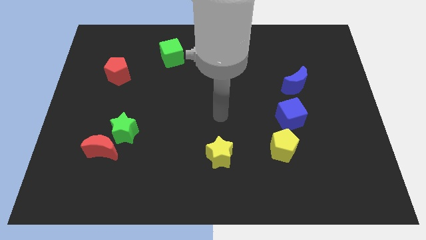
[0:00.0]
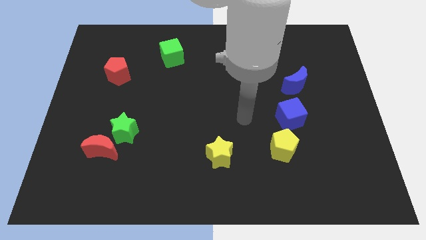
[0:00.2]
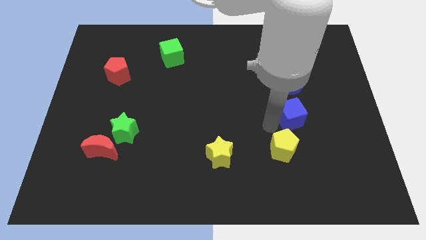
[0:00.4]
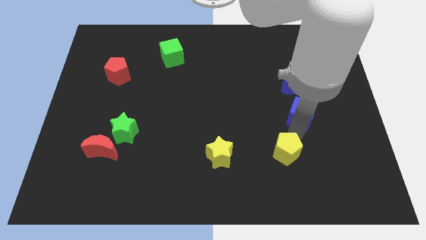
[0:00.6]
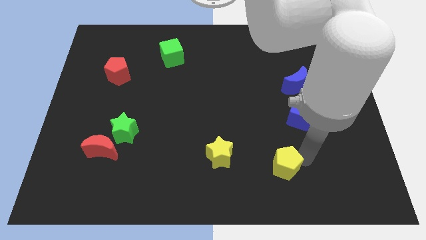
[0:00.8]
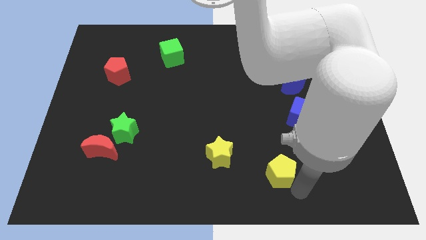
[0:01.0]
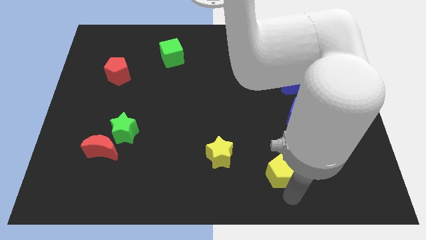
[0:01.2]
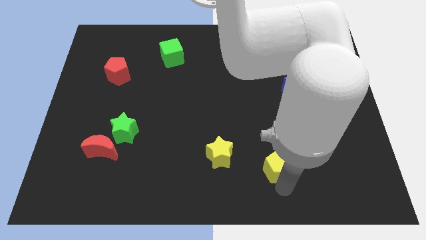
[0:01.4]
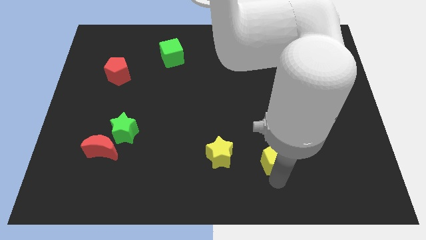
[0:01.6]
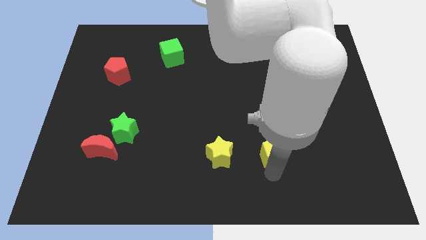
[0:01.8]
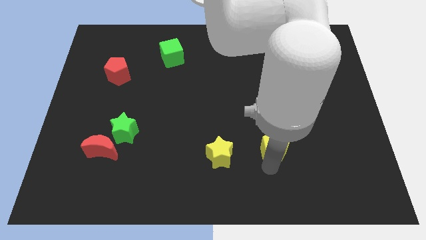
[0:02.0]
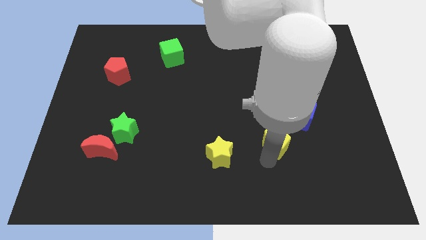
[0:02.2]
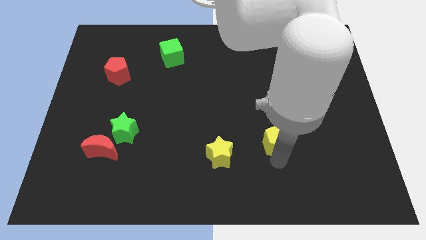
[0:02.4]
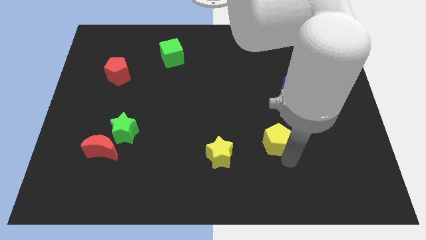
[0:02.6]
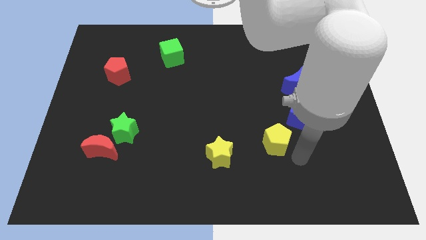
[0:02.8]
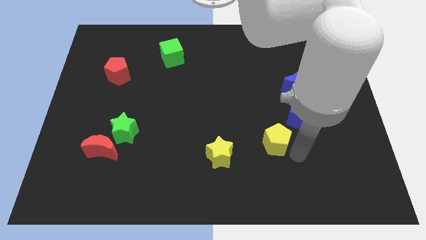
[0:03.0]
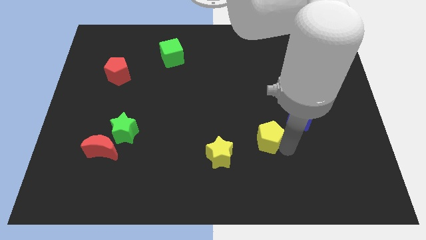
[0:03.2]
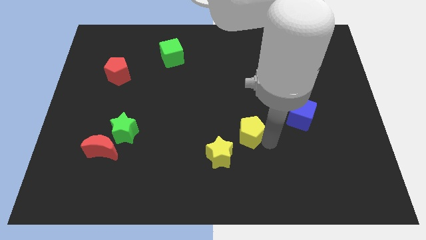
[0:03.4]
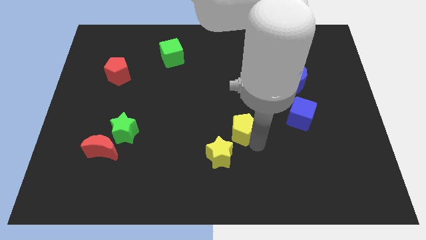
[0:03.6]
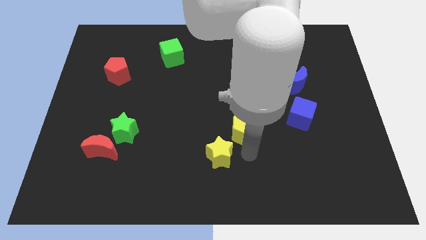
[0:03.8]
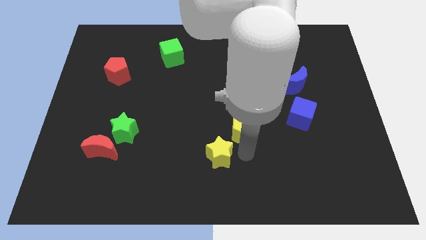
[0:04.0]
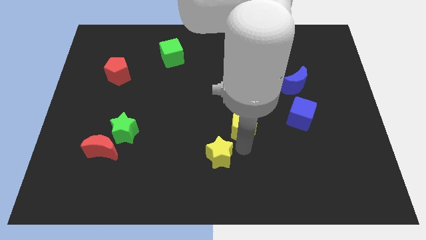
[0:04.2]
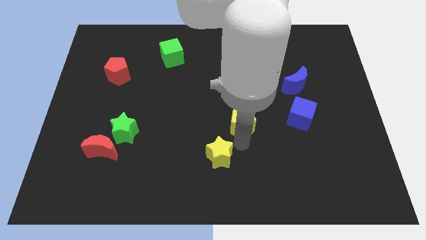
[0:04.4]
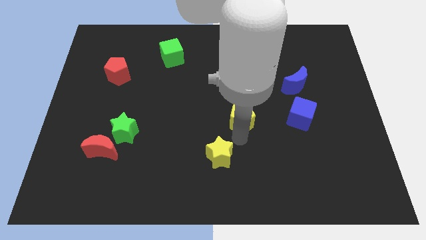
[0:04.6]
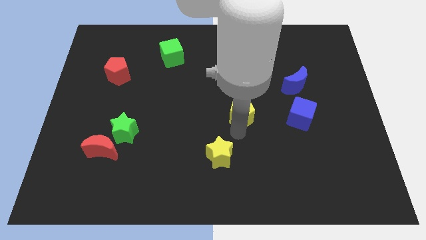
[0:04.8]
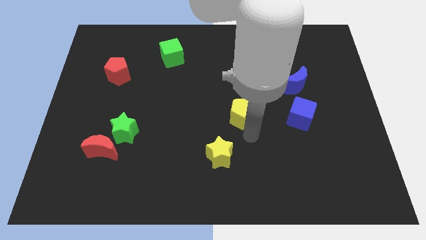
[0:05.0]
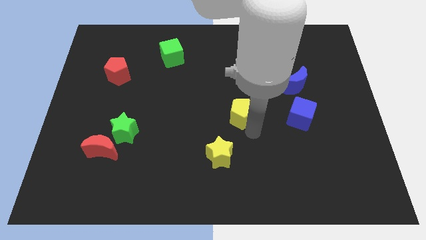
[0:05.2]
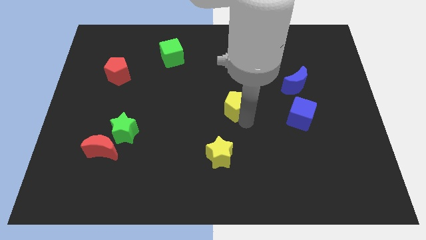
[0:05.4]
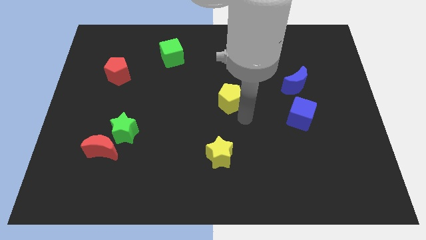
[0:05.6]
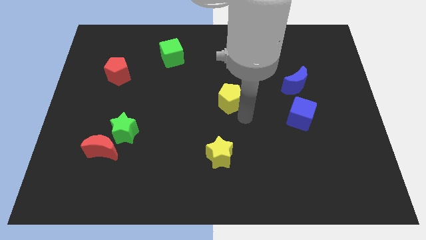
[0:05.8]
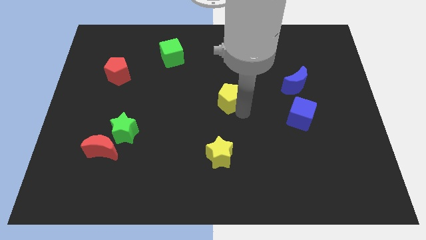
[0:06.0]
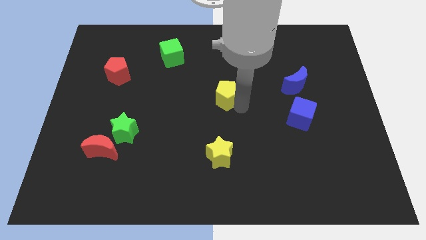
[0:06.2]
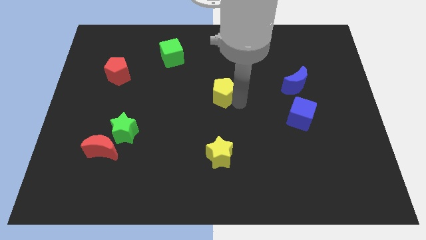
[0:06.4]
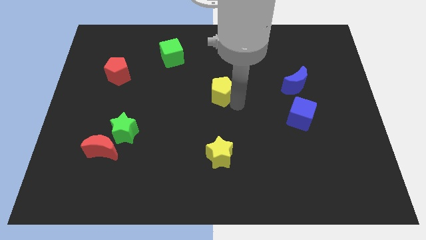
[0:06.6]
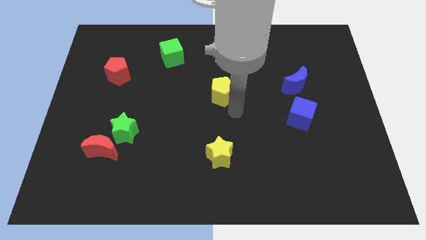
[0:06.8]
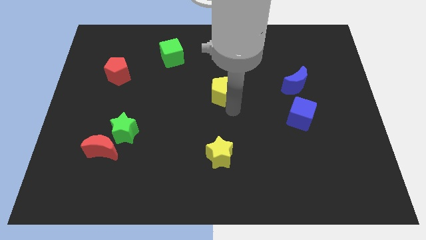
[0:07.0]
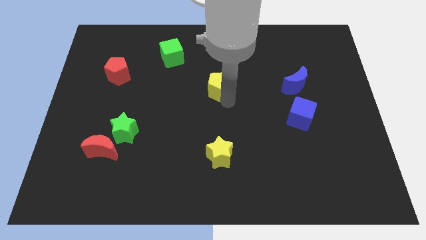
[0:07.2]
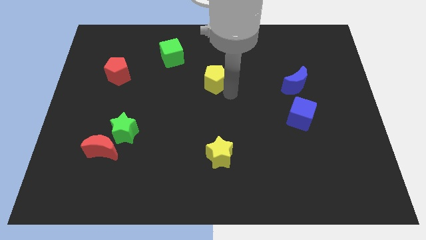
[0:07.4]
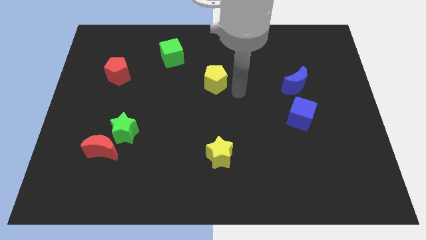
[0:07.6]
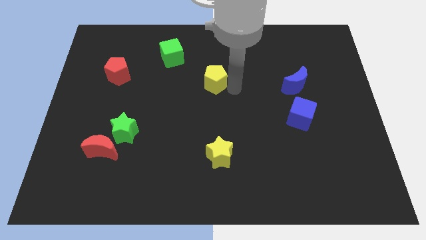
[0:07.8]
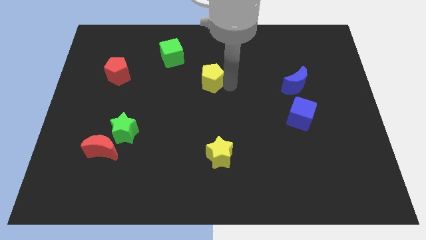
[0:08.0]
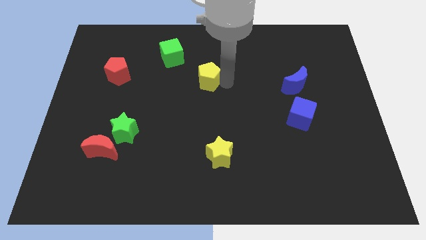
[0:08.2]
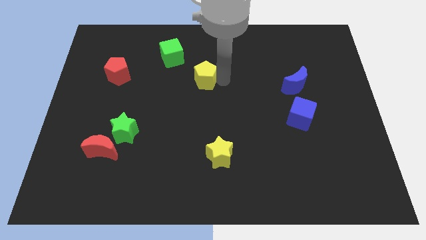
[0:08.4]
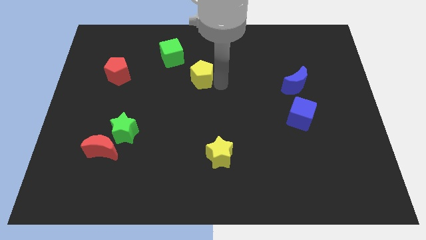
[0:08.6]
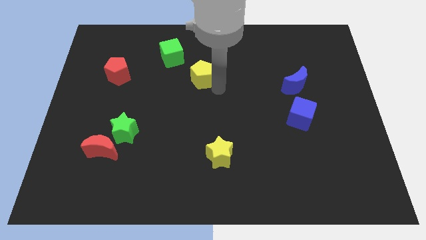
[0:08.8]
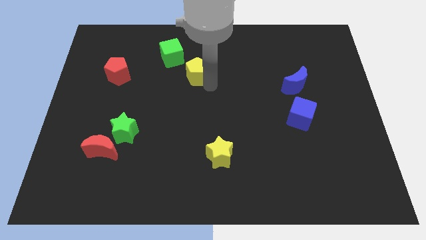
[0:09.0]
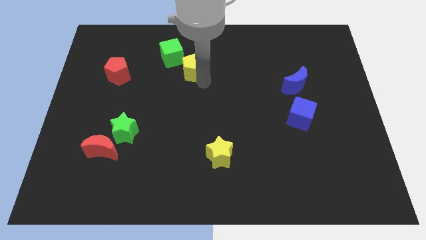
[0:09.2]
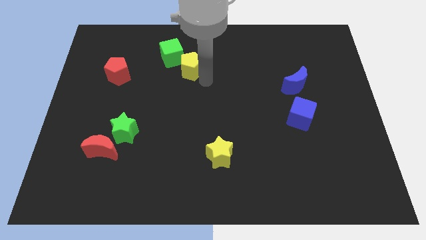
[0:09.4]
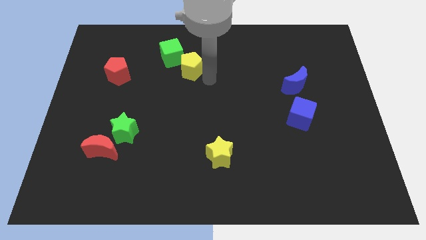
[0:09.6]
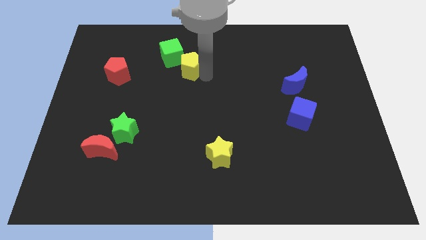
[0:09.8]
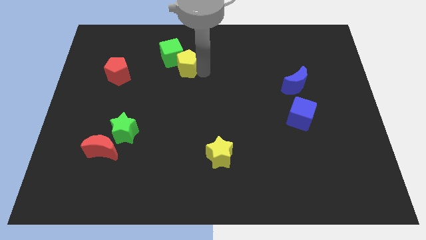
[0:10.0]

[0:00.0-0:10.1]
slide the yellow pentagon to the green cube

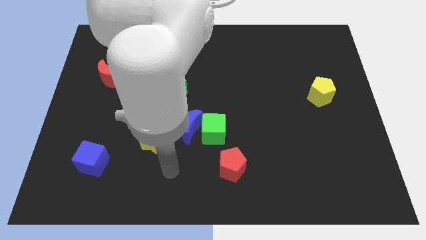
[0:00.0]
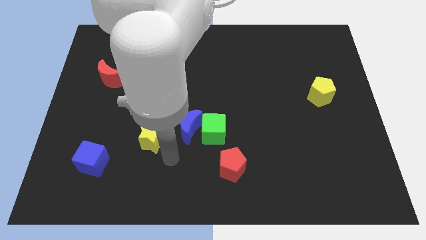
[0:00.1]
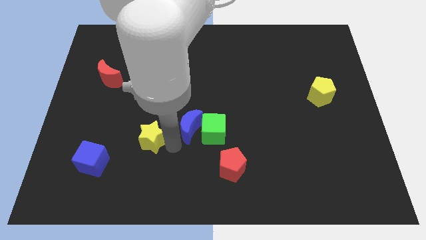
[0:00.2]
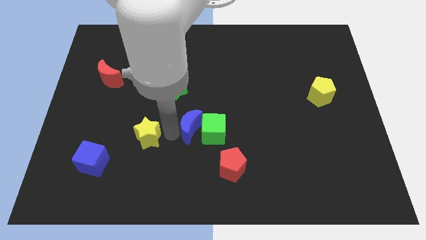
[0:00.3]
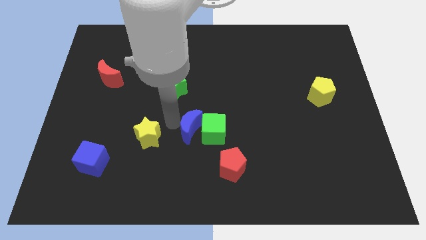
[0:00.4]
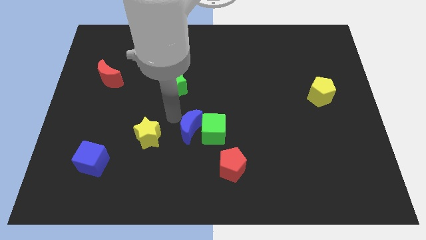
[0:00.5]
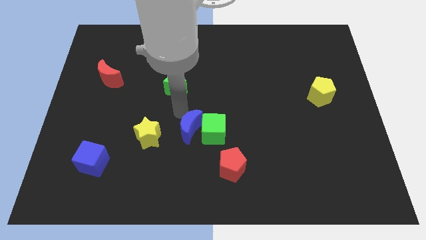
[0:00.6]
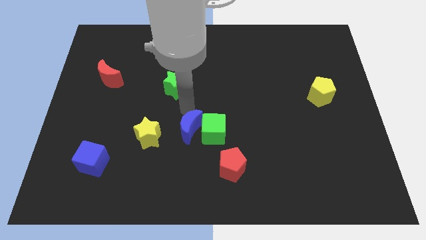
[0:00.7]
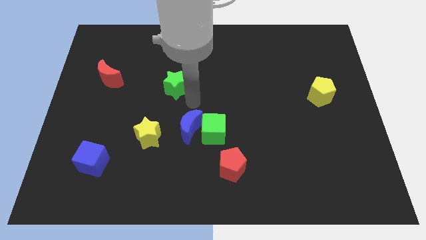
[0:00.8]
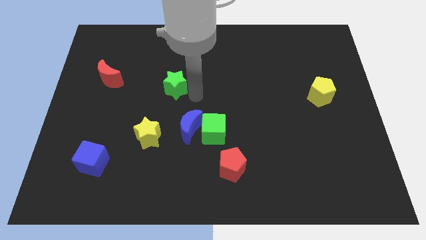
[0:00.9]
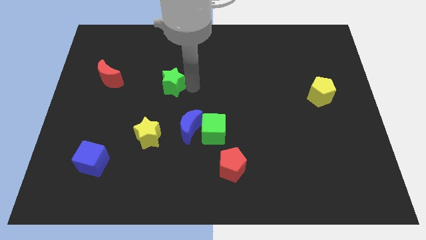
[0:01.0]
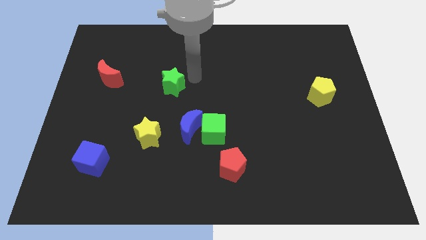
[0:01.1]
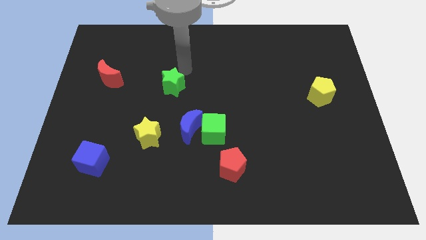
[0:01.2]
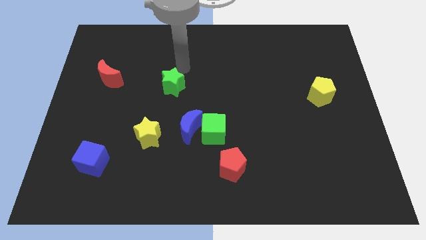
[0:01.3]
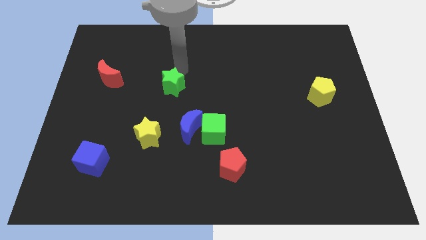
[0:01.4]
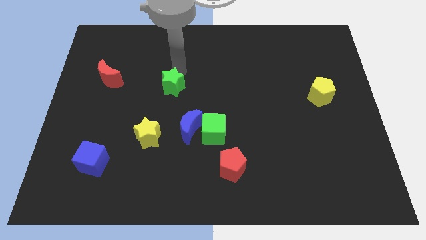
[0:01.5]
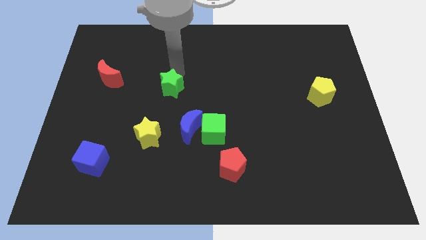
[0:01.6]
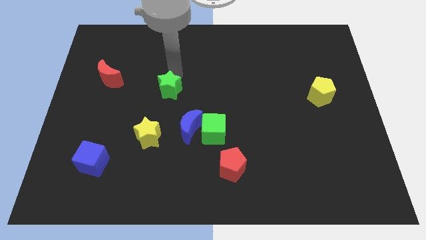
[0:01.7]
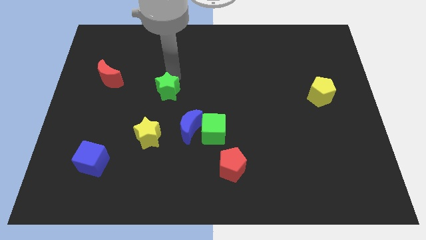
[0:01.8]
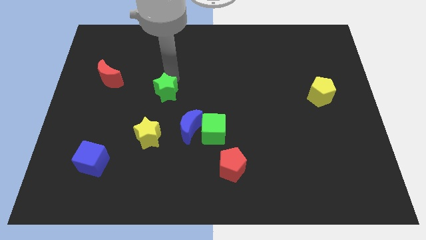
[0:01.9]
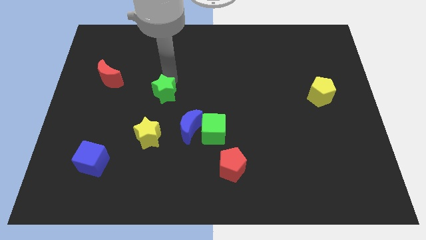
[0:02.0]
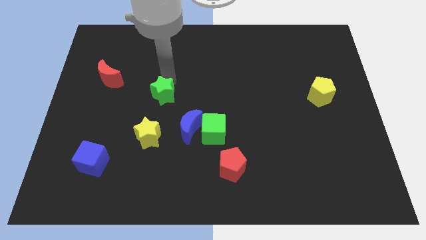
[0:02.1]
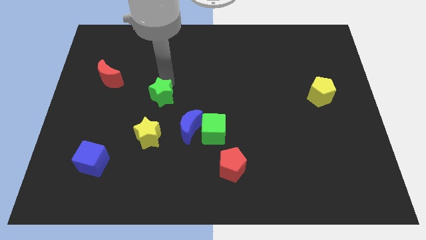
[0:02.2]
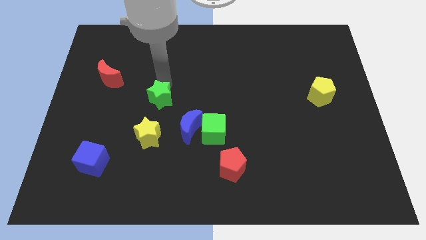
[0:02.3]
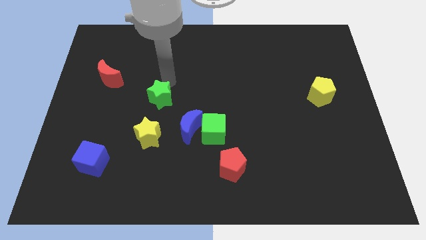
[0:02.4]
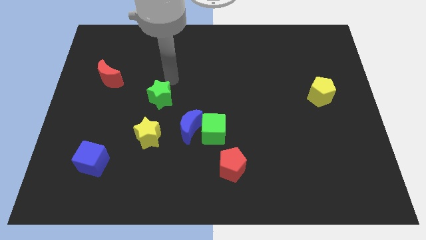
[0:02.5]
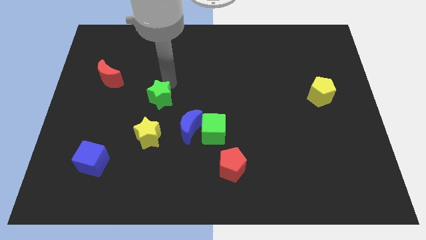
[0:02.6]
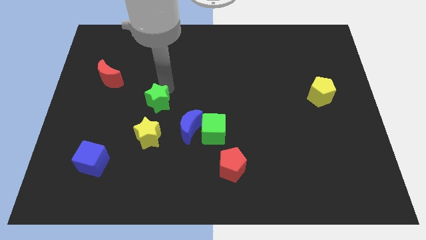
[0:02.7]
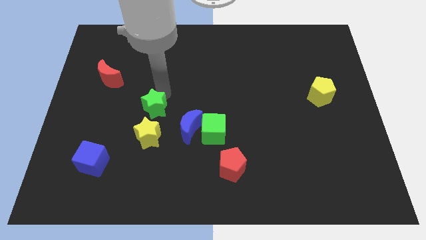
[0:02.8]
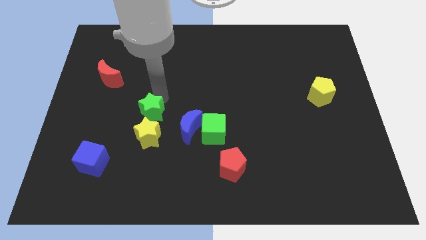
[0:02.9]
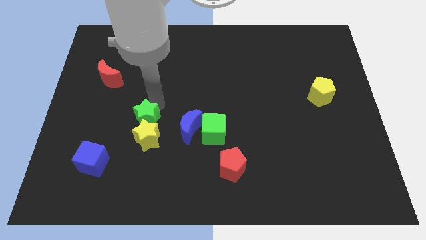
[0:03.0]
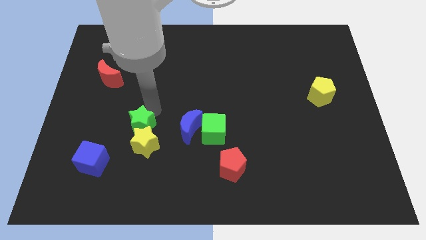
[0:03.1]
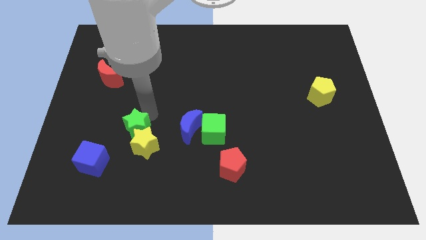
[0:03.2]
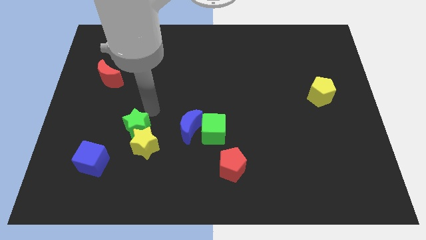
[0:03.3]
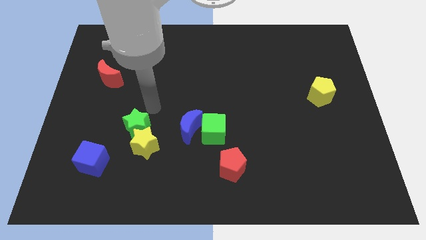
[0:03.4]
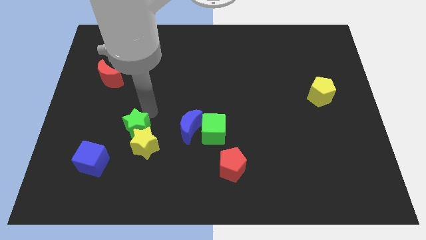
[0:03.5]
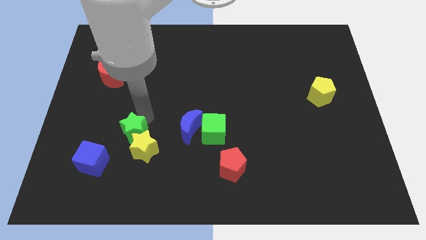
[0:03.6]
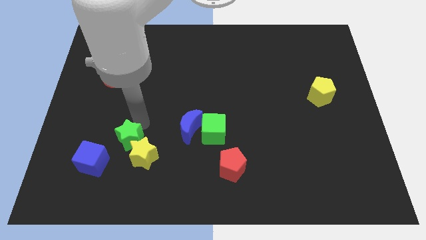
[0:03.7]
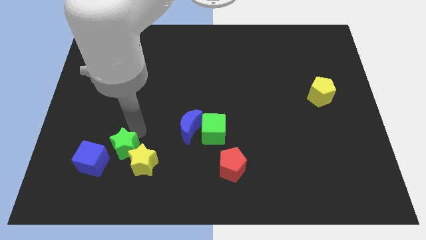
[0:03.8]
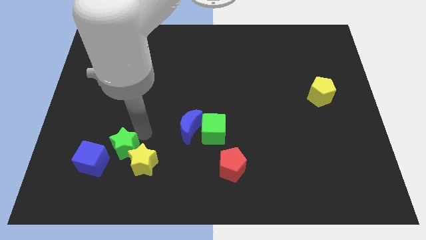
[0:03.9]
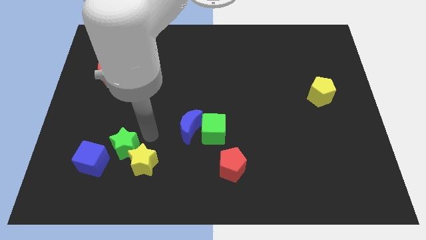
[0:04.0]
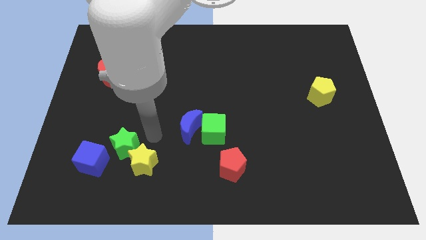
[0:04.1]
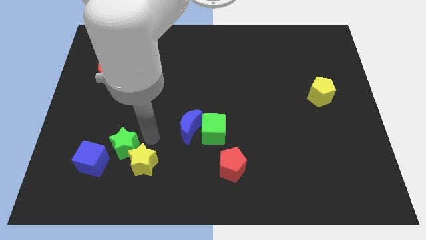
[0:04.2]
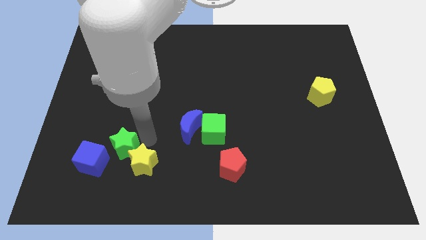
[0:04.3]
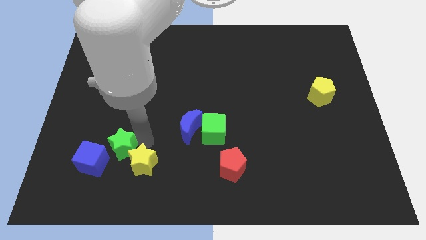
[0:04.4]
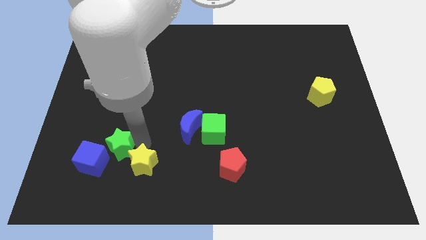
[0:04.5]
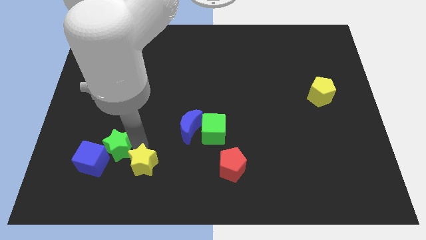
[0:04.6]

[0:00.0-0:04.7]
move the green star close to the blue cube
